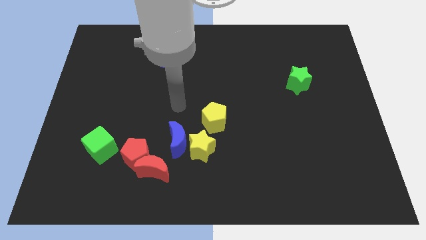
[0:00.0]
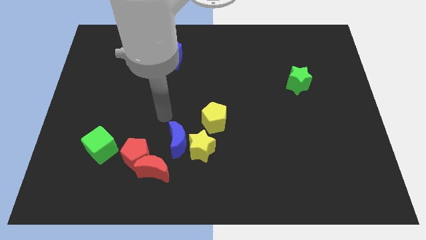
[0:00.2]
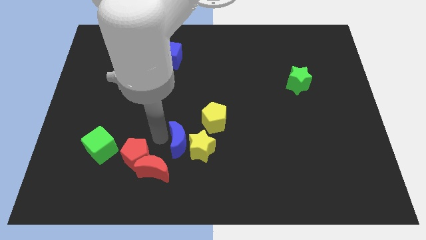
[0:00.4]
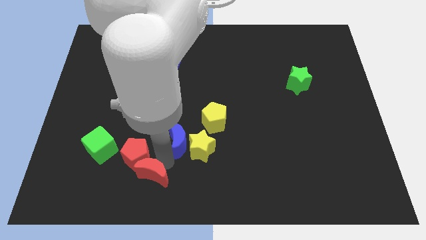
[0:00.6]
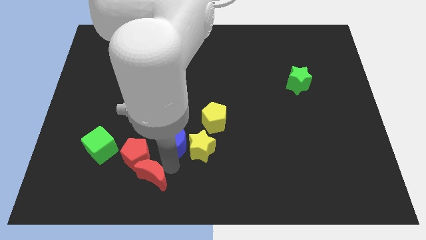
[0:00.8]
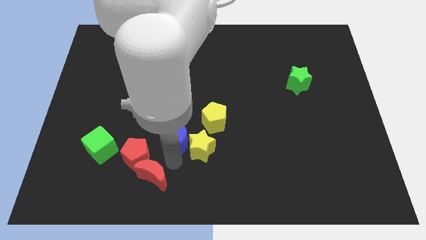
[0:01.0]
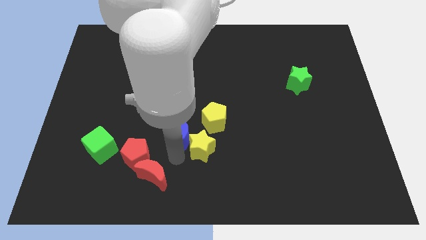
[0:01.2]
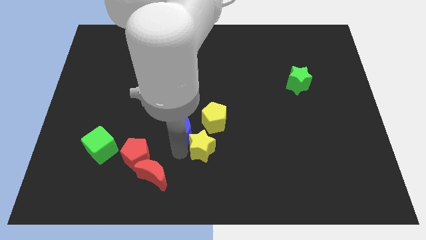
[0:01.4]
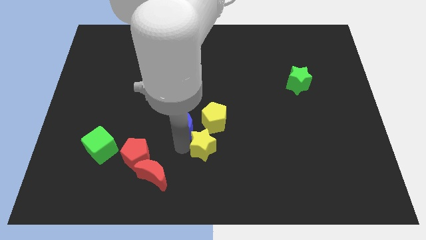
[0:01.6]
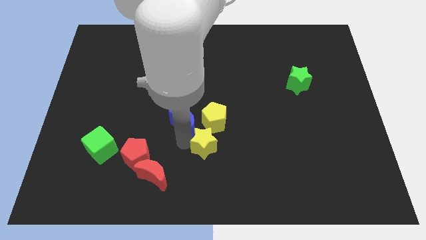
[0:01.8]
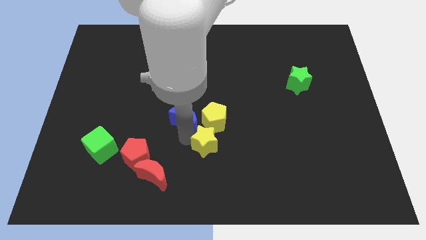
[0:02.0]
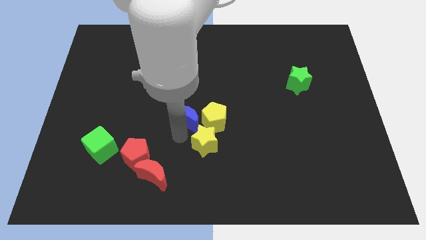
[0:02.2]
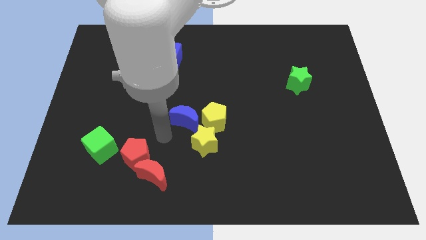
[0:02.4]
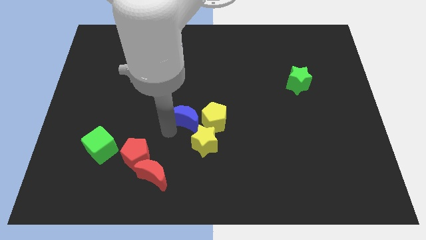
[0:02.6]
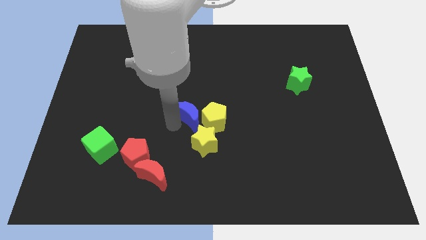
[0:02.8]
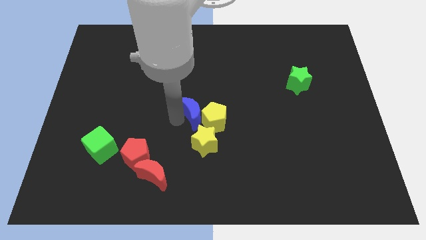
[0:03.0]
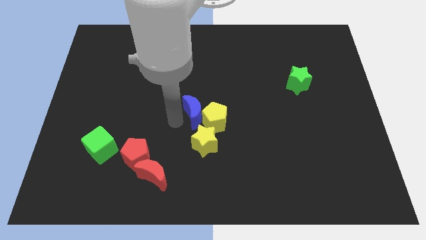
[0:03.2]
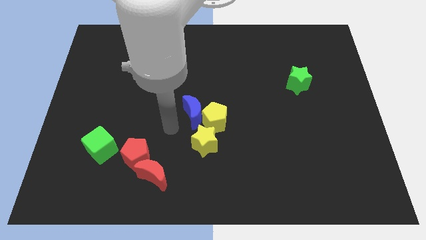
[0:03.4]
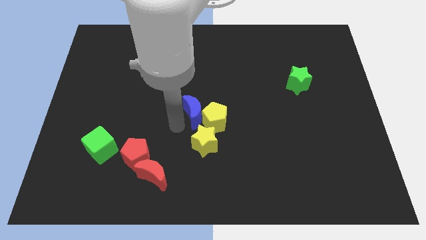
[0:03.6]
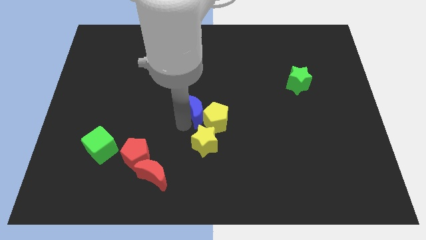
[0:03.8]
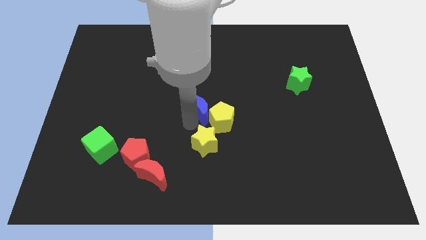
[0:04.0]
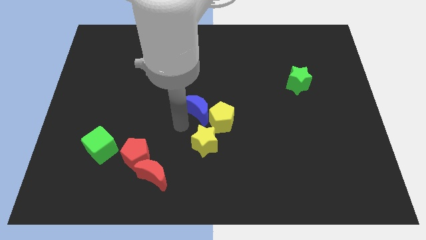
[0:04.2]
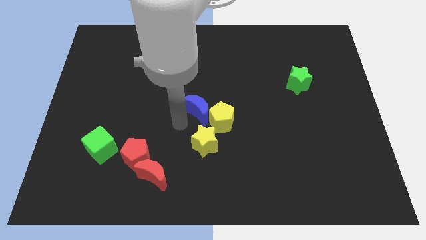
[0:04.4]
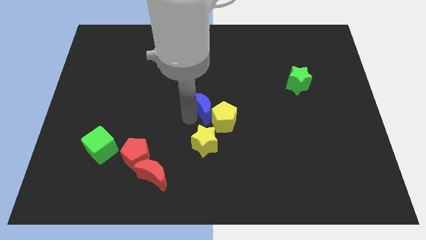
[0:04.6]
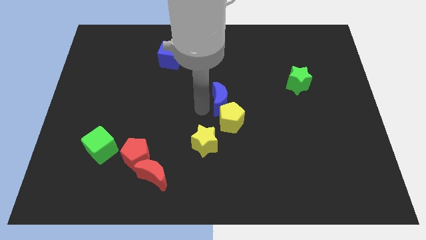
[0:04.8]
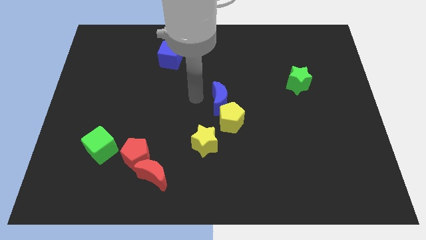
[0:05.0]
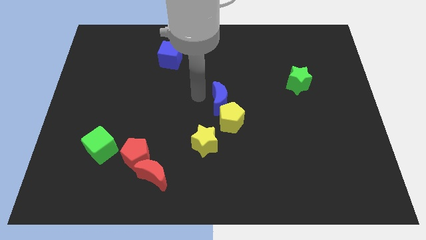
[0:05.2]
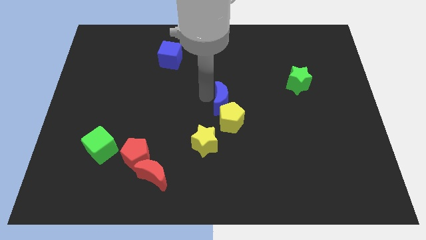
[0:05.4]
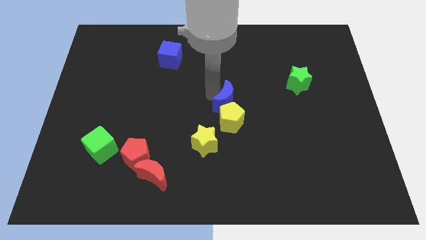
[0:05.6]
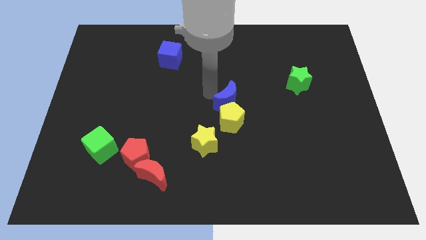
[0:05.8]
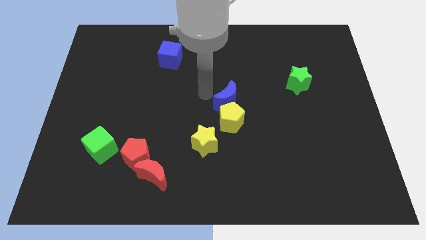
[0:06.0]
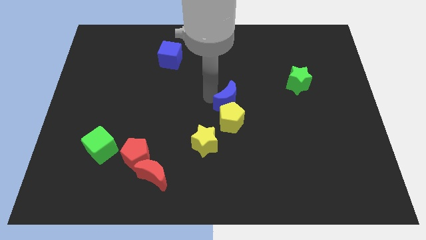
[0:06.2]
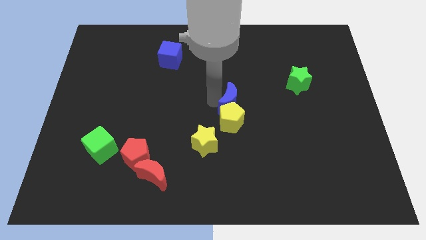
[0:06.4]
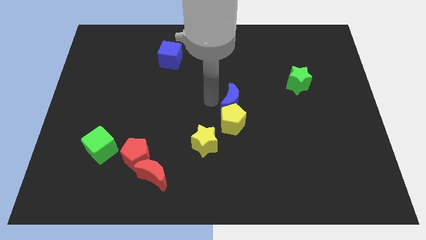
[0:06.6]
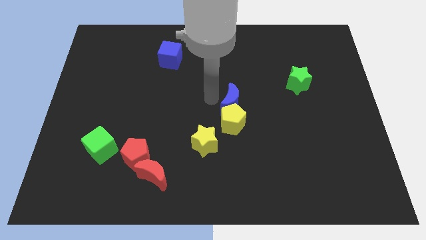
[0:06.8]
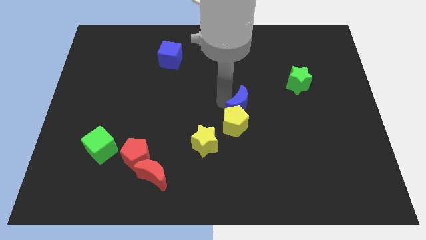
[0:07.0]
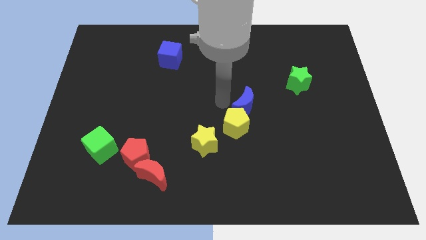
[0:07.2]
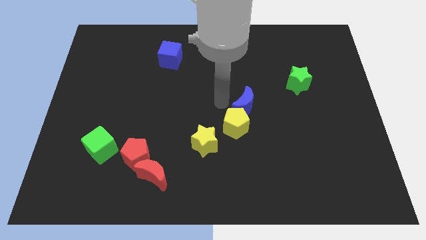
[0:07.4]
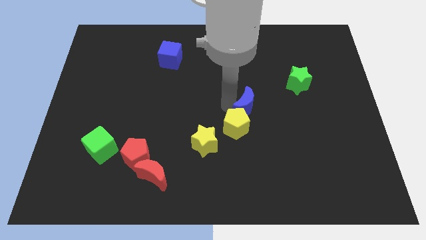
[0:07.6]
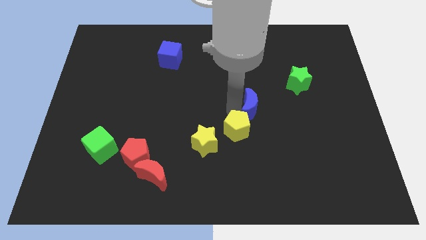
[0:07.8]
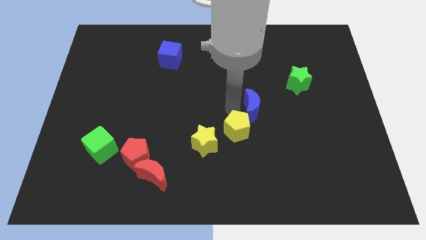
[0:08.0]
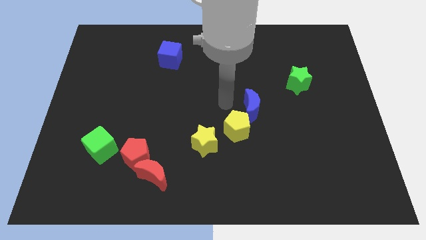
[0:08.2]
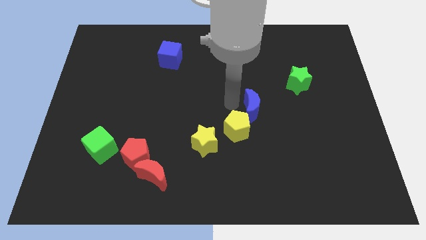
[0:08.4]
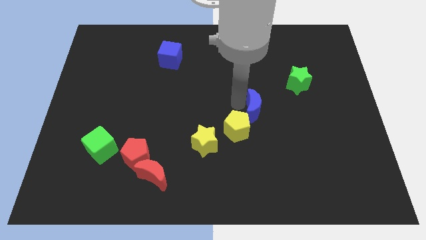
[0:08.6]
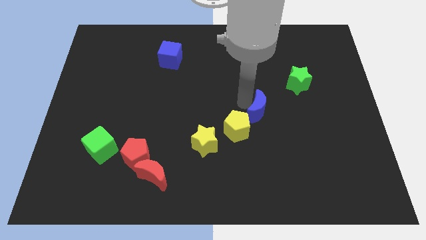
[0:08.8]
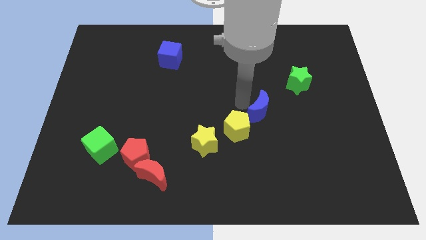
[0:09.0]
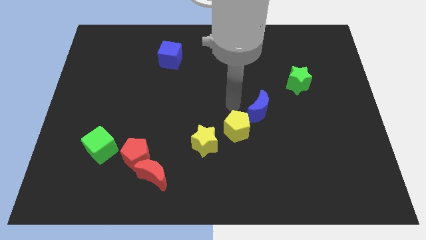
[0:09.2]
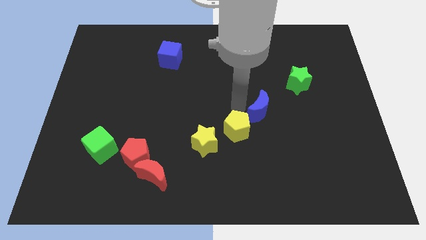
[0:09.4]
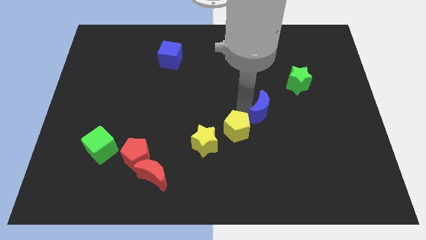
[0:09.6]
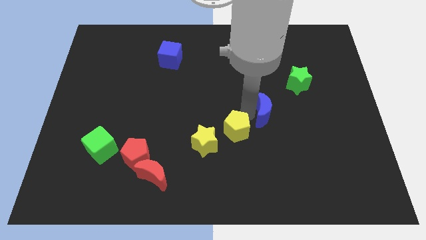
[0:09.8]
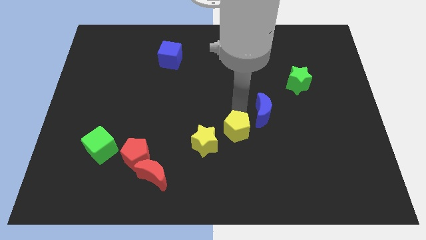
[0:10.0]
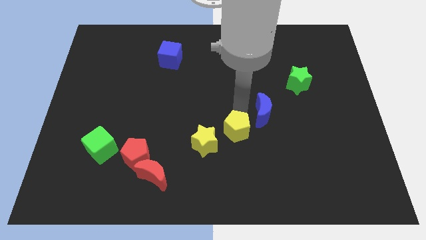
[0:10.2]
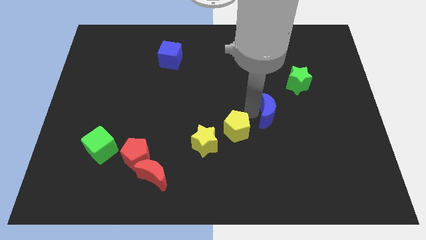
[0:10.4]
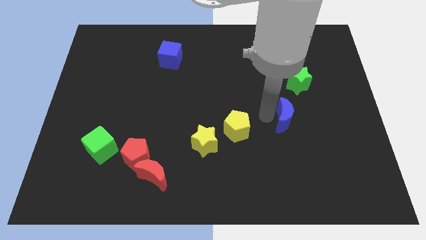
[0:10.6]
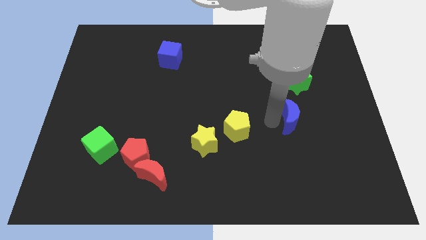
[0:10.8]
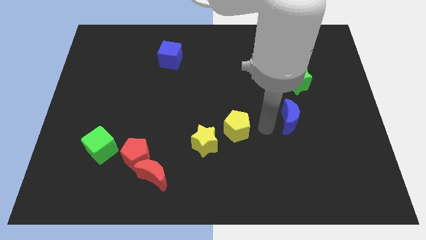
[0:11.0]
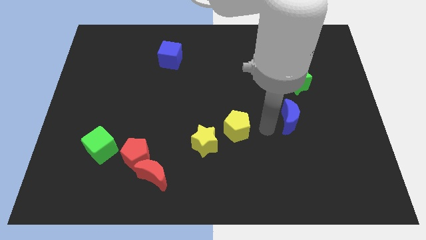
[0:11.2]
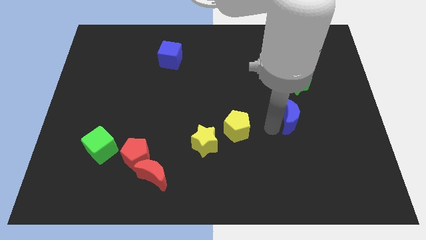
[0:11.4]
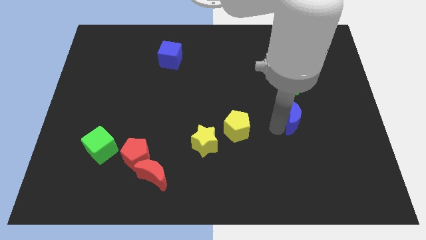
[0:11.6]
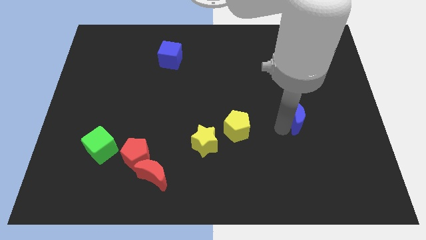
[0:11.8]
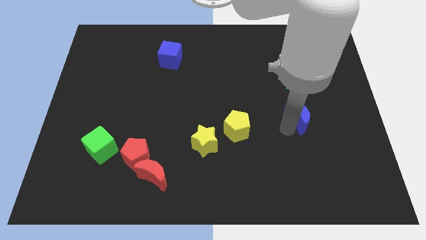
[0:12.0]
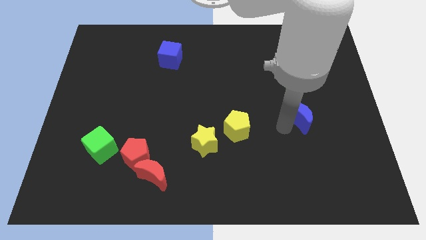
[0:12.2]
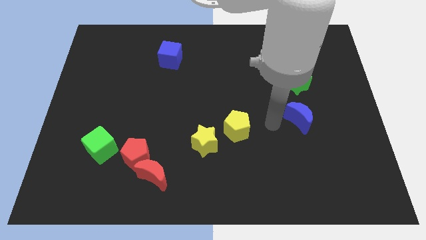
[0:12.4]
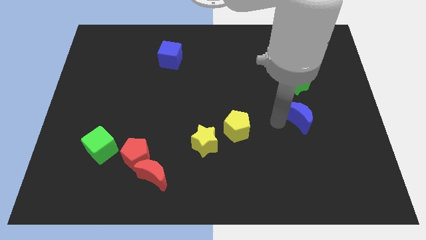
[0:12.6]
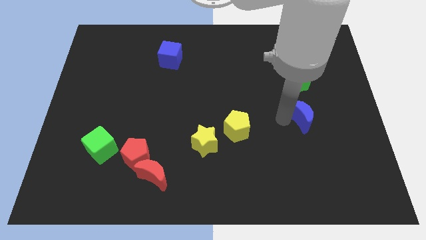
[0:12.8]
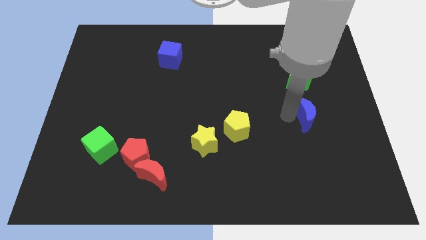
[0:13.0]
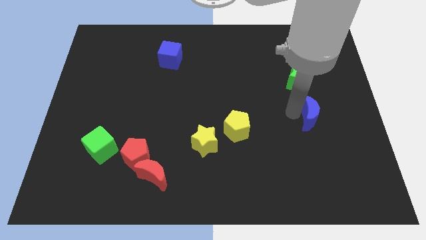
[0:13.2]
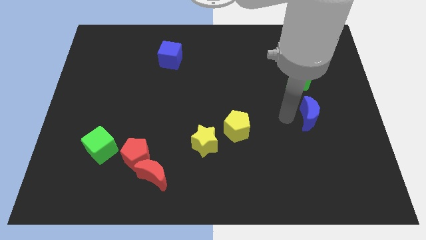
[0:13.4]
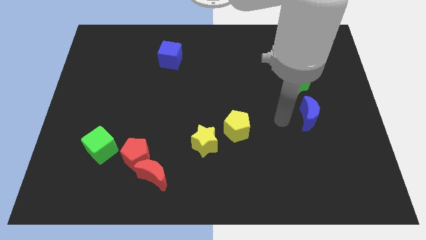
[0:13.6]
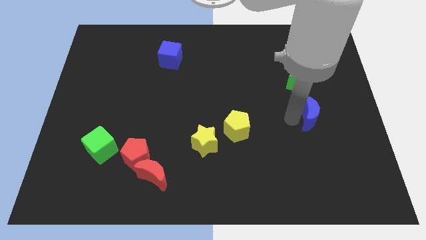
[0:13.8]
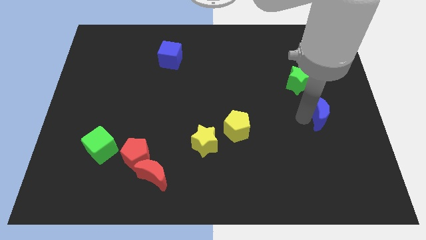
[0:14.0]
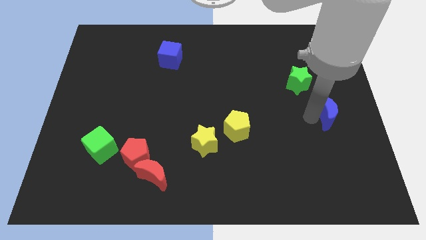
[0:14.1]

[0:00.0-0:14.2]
put the blue moon to the center right
